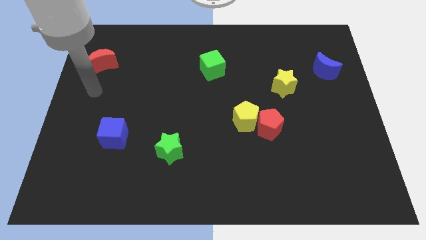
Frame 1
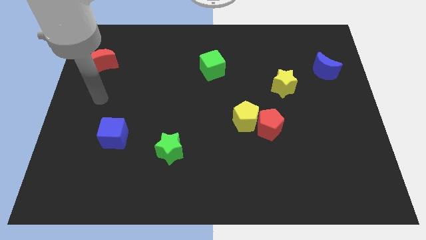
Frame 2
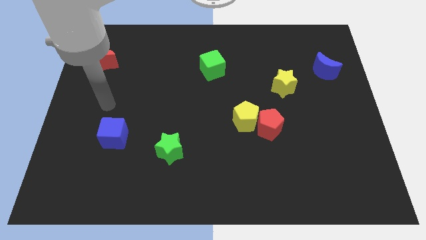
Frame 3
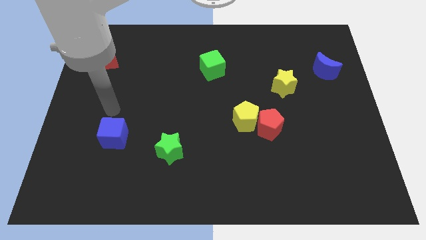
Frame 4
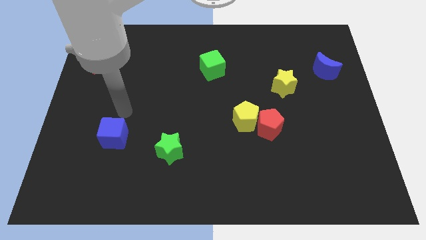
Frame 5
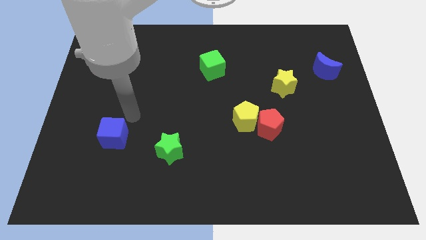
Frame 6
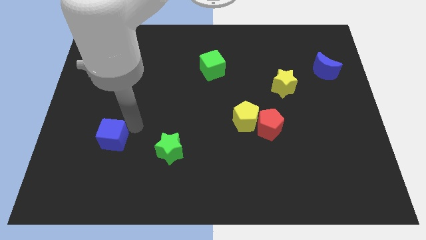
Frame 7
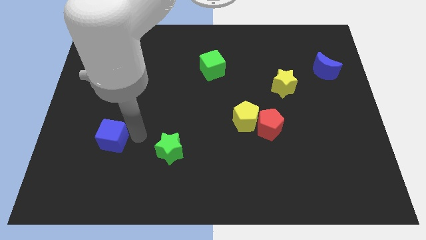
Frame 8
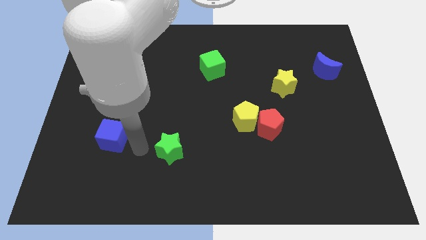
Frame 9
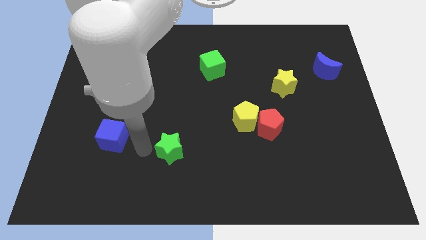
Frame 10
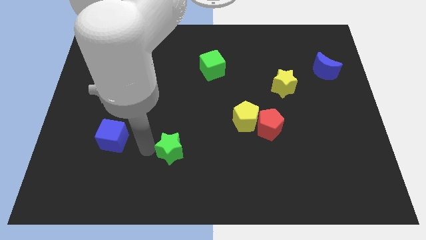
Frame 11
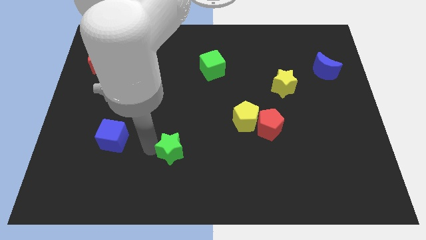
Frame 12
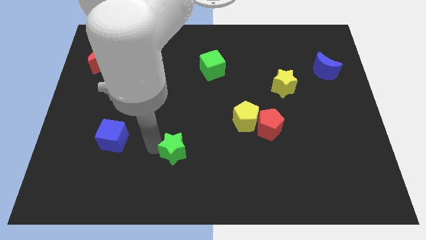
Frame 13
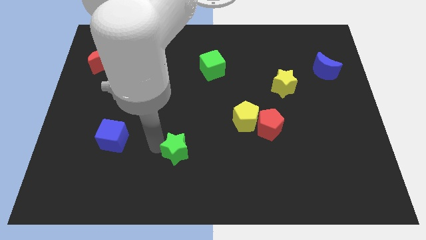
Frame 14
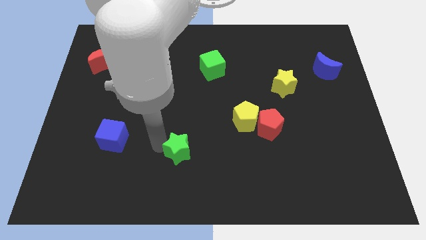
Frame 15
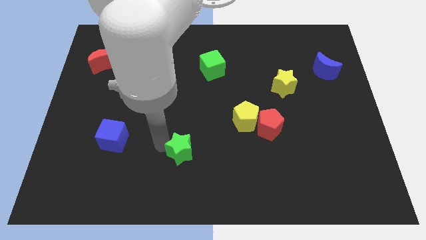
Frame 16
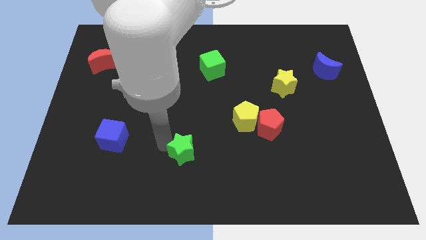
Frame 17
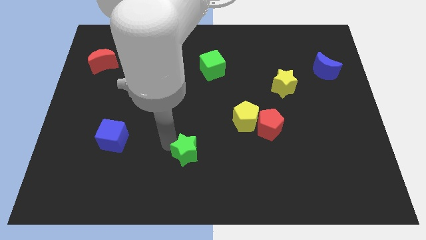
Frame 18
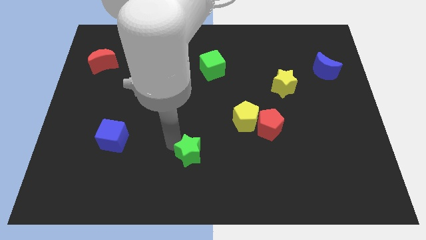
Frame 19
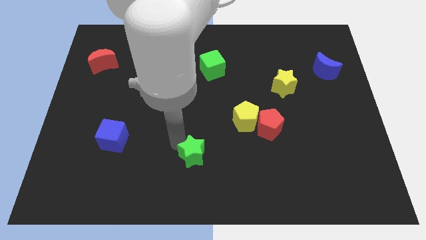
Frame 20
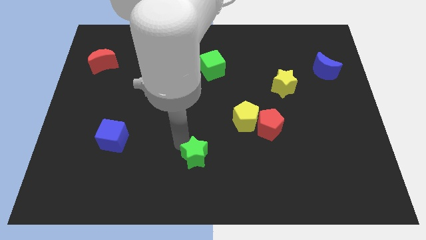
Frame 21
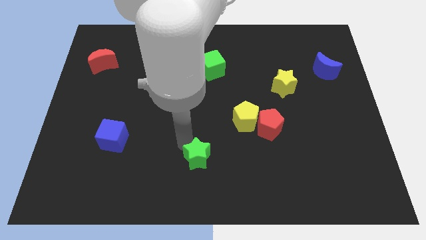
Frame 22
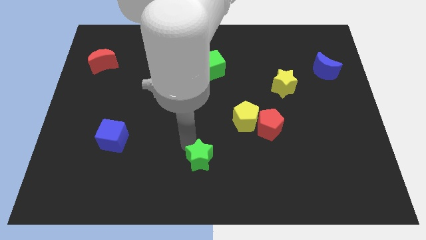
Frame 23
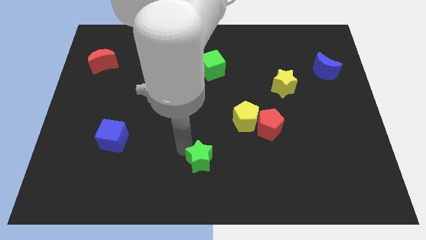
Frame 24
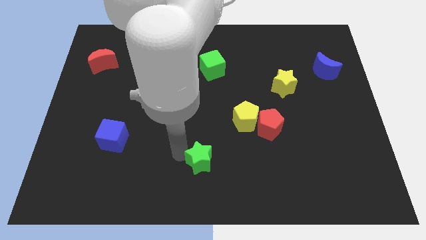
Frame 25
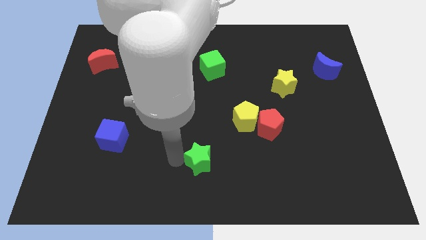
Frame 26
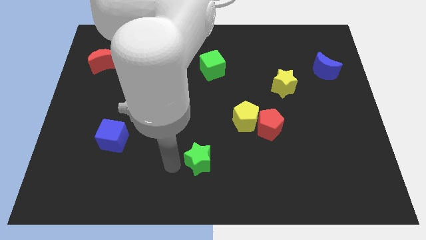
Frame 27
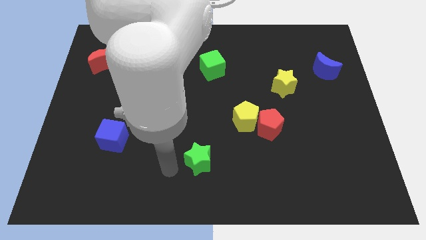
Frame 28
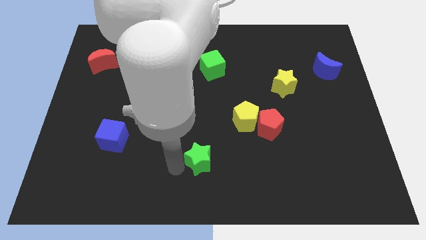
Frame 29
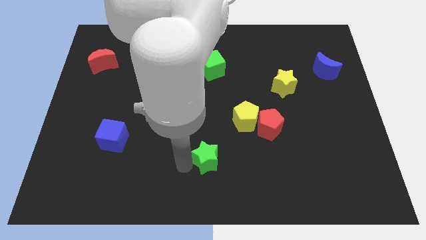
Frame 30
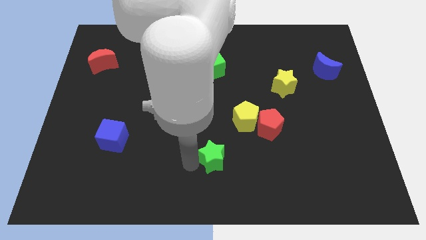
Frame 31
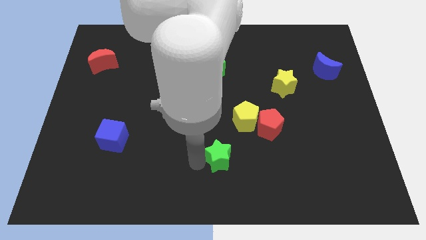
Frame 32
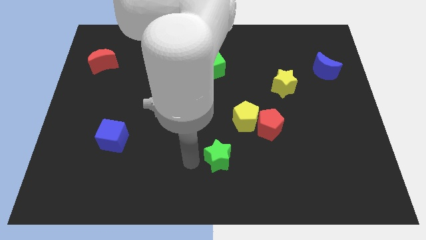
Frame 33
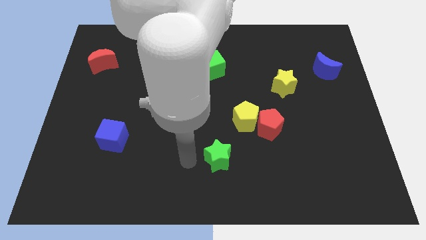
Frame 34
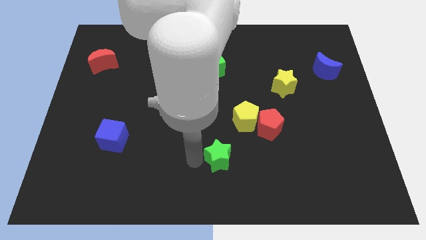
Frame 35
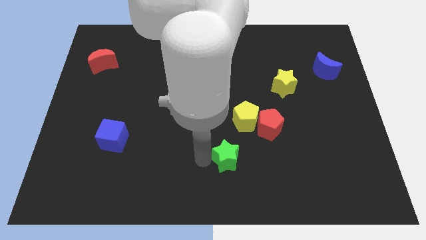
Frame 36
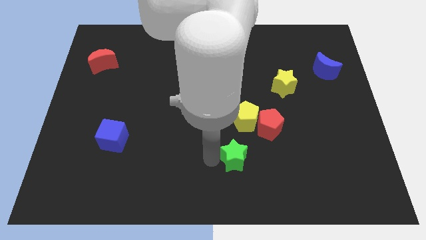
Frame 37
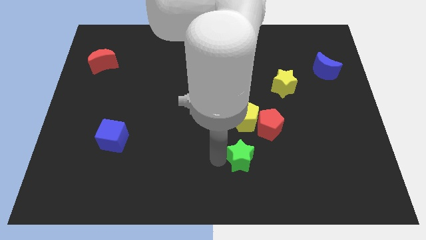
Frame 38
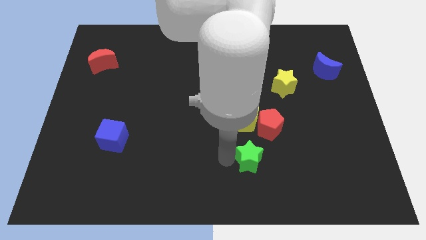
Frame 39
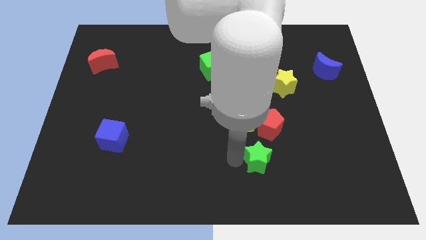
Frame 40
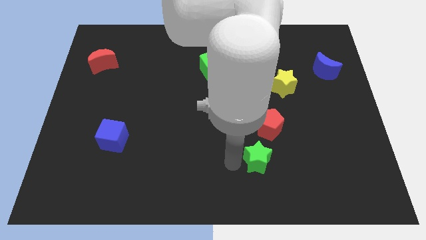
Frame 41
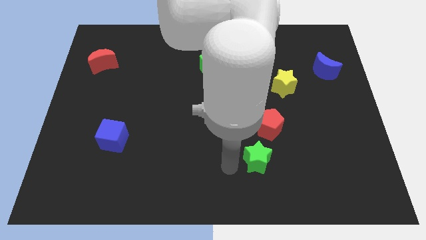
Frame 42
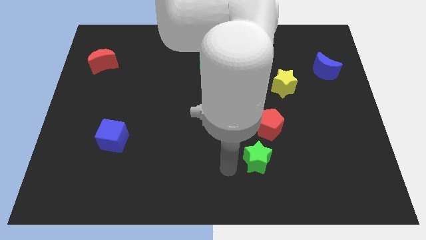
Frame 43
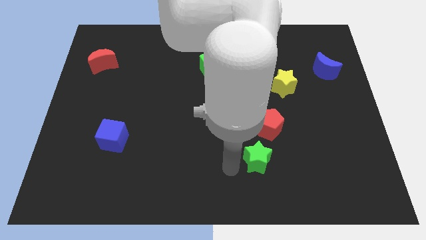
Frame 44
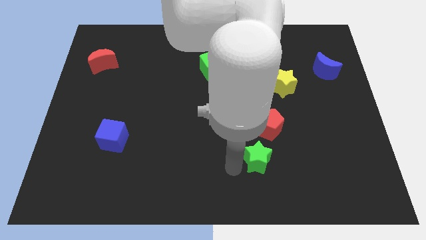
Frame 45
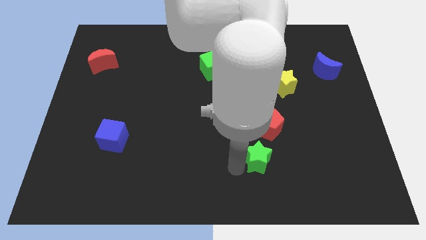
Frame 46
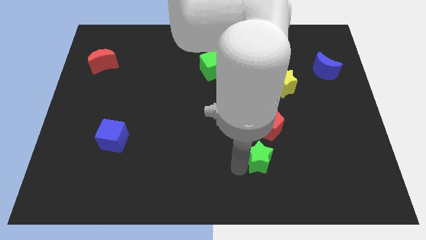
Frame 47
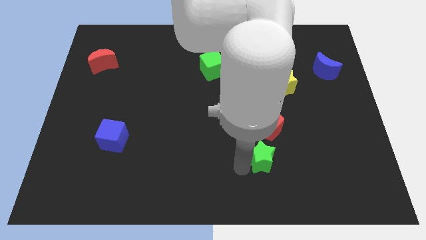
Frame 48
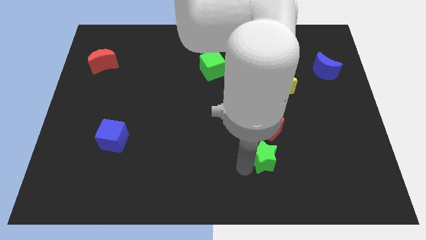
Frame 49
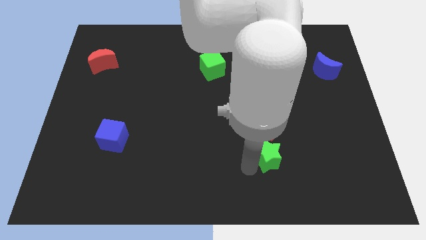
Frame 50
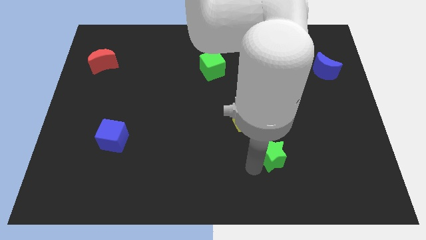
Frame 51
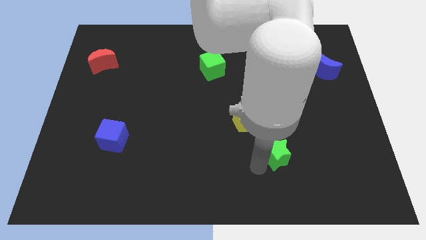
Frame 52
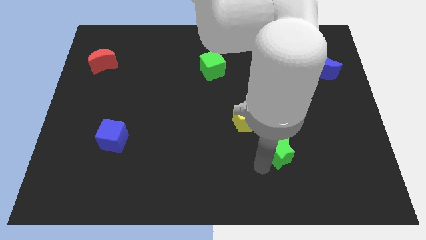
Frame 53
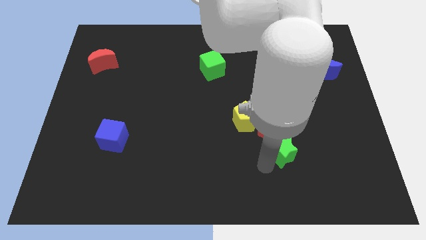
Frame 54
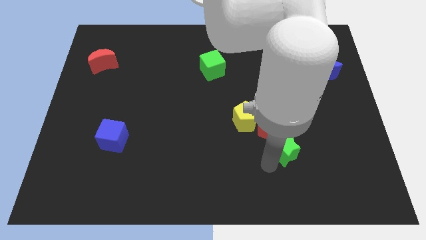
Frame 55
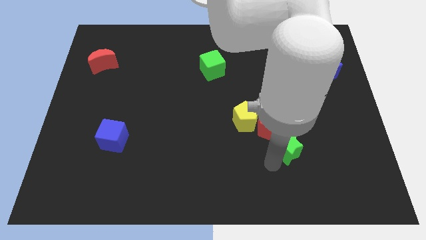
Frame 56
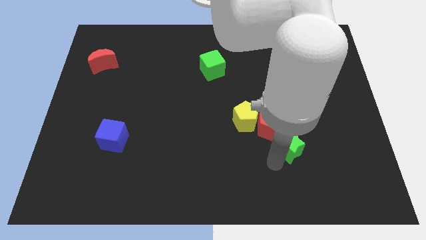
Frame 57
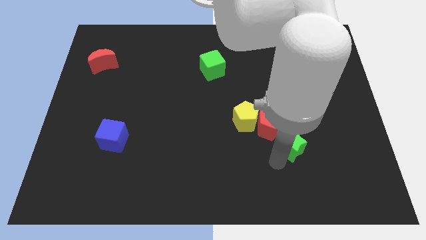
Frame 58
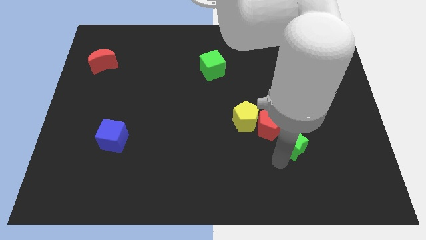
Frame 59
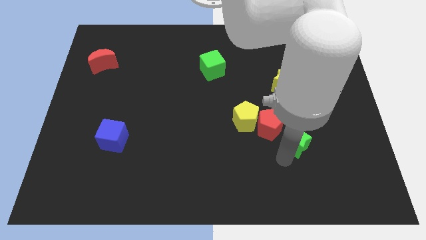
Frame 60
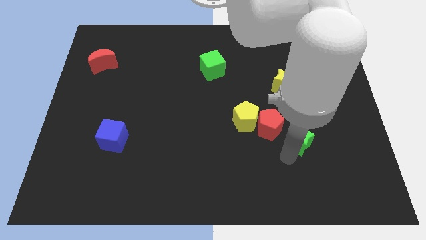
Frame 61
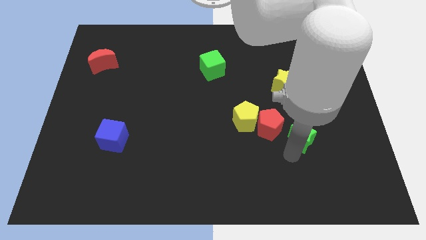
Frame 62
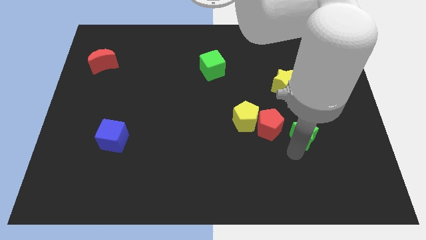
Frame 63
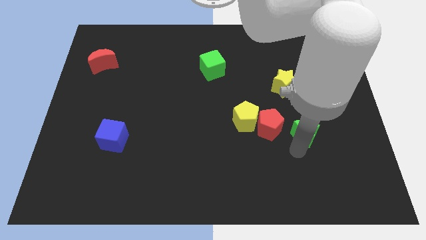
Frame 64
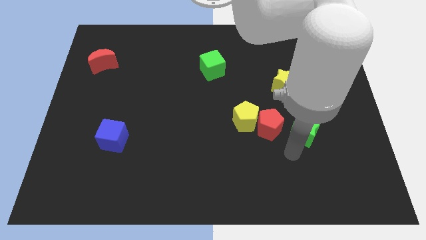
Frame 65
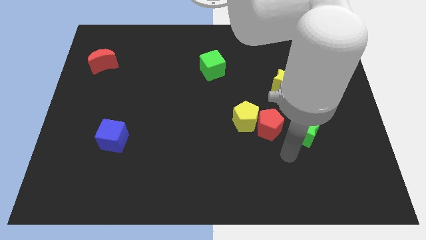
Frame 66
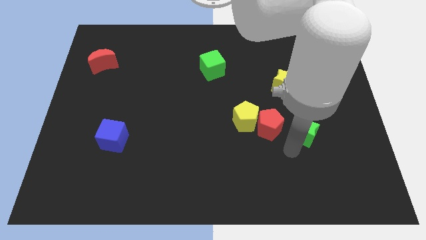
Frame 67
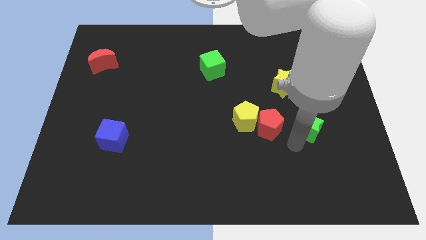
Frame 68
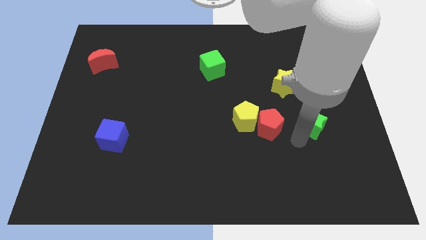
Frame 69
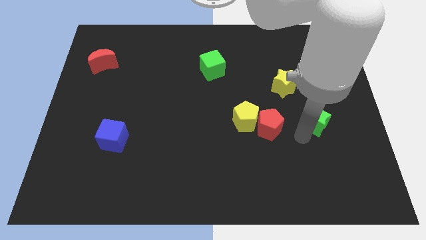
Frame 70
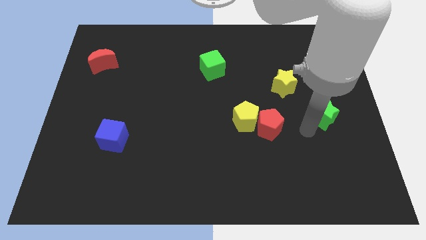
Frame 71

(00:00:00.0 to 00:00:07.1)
put the green star to the bottom side of the blue moon
